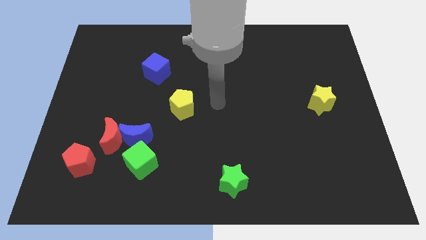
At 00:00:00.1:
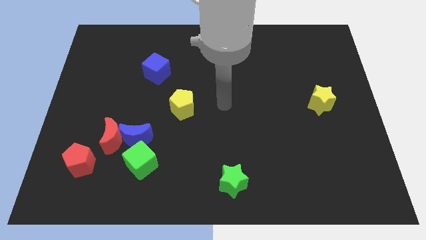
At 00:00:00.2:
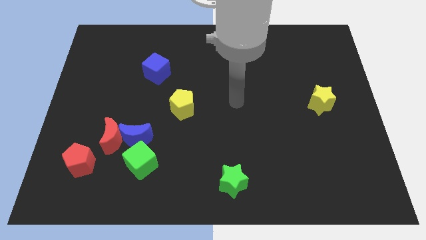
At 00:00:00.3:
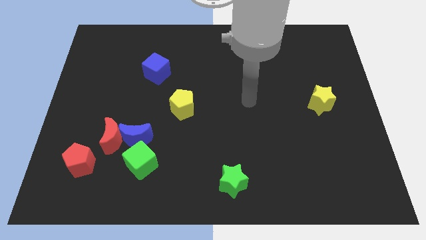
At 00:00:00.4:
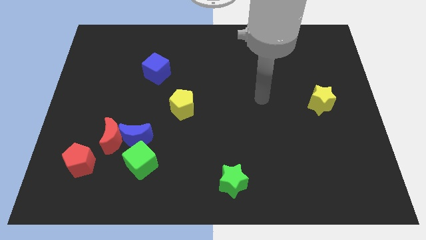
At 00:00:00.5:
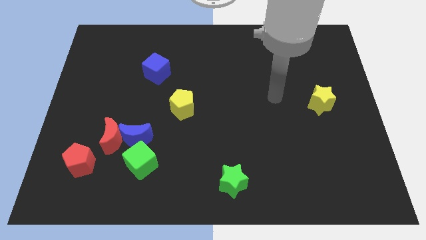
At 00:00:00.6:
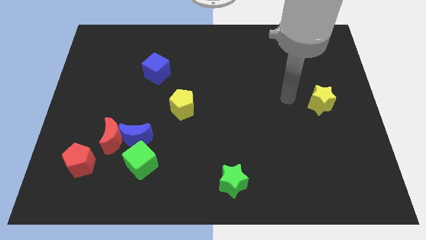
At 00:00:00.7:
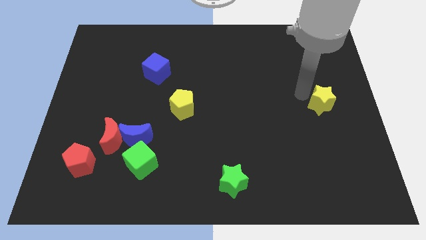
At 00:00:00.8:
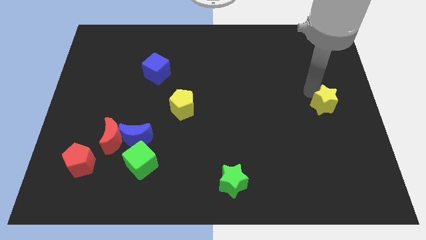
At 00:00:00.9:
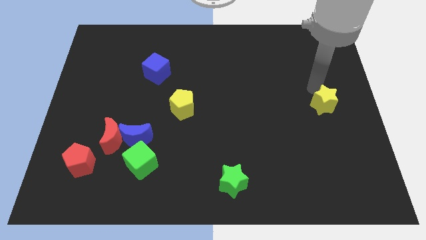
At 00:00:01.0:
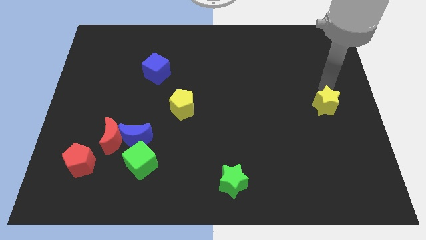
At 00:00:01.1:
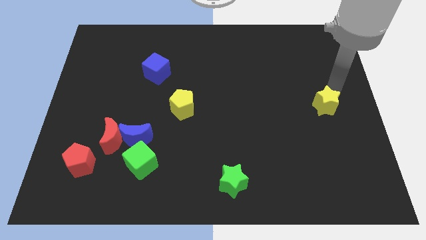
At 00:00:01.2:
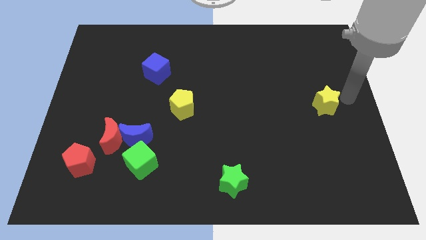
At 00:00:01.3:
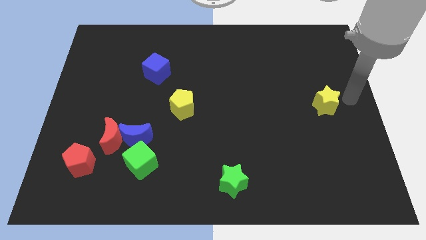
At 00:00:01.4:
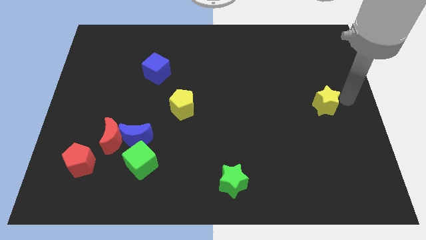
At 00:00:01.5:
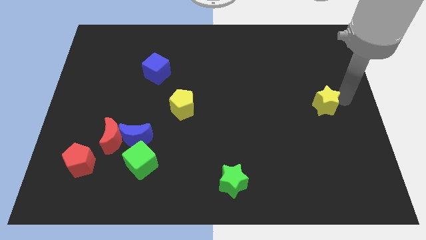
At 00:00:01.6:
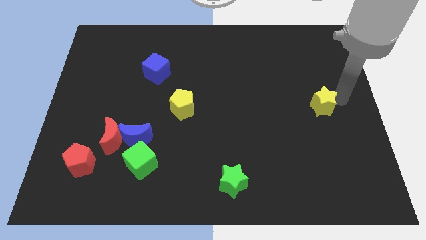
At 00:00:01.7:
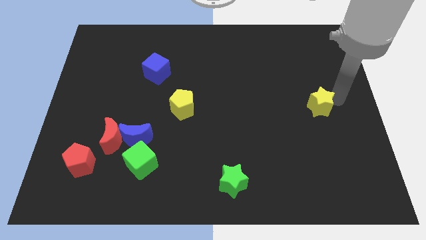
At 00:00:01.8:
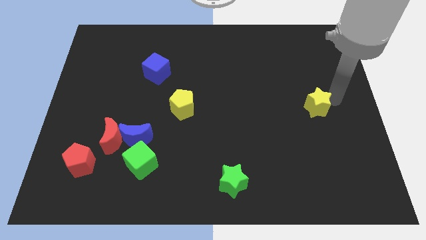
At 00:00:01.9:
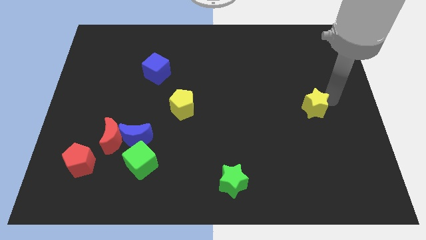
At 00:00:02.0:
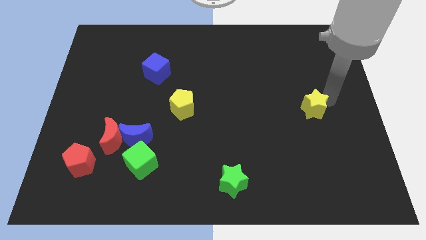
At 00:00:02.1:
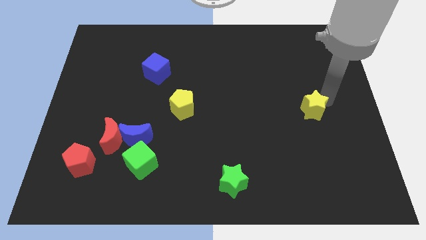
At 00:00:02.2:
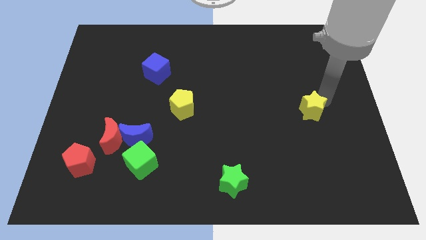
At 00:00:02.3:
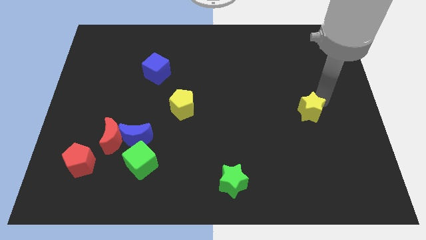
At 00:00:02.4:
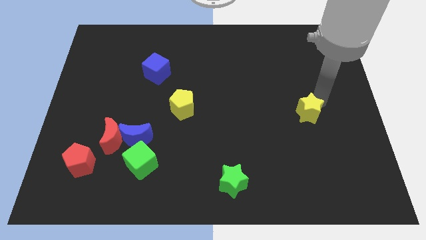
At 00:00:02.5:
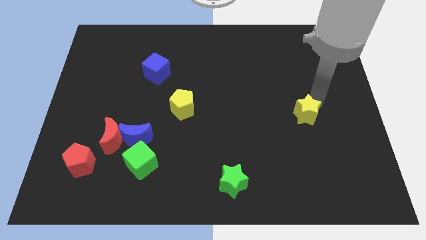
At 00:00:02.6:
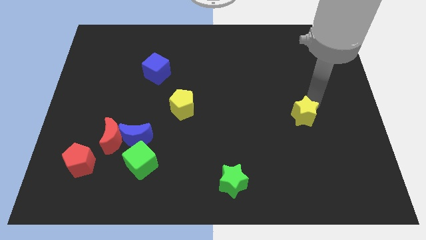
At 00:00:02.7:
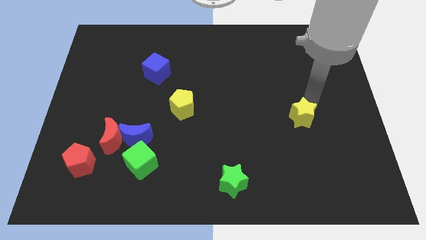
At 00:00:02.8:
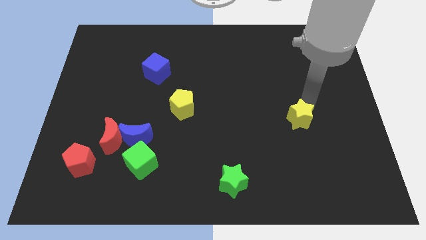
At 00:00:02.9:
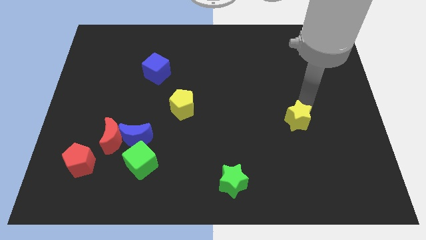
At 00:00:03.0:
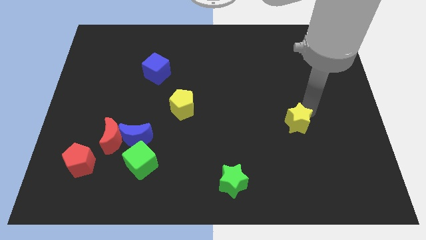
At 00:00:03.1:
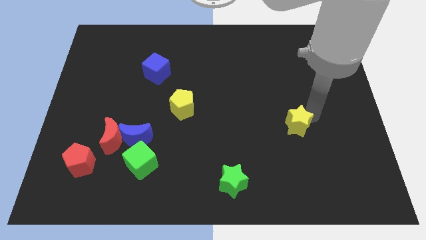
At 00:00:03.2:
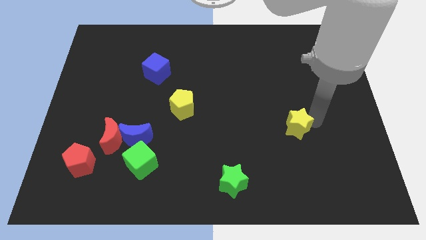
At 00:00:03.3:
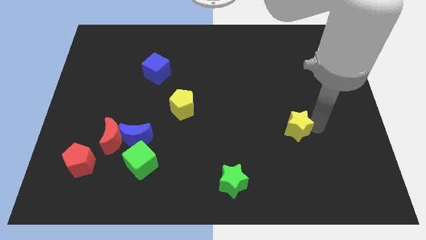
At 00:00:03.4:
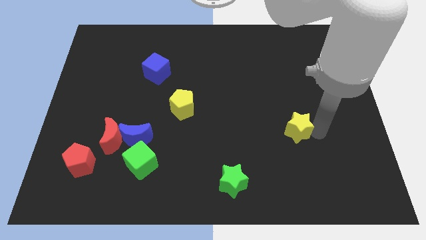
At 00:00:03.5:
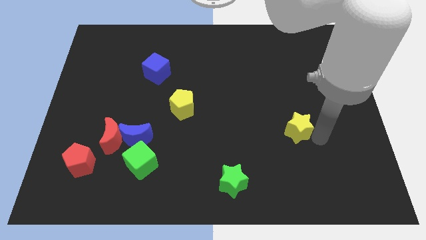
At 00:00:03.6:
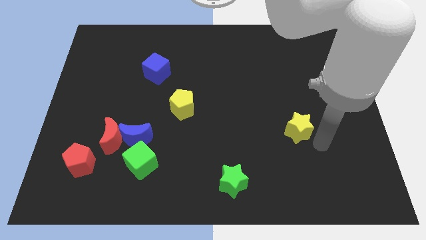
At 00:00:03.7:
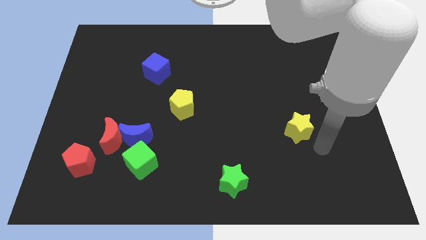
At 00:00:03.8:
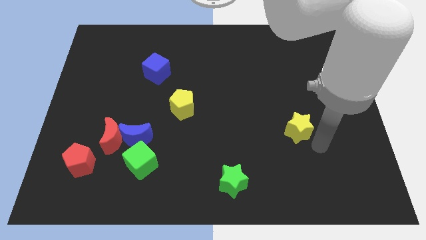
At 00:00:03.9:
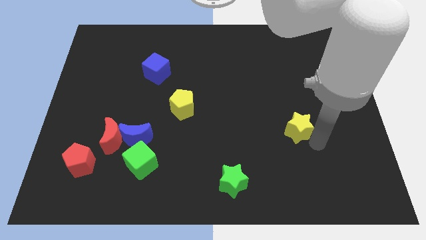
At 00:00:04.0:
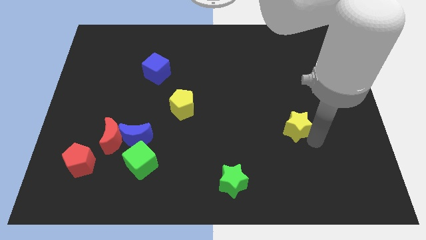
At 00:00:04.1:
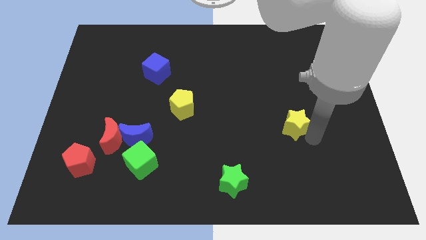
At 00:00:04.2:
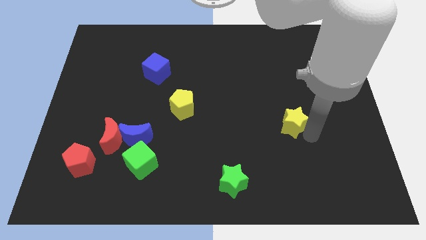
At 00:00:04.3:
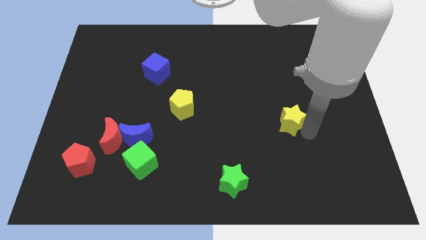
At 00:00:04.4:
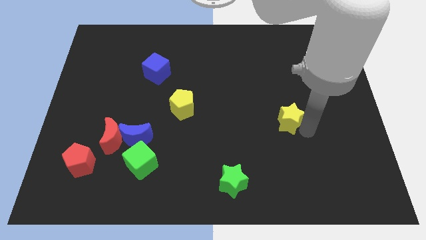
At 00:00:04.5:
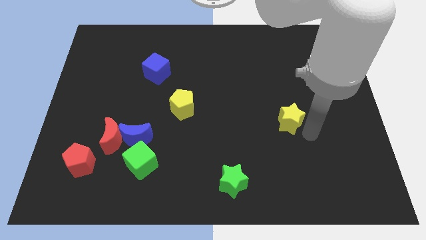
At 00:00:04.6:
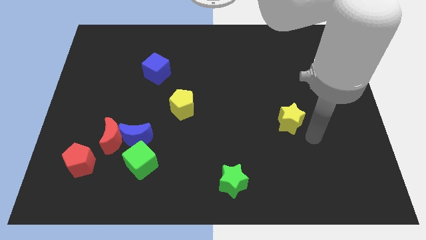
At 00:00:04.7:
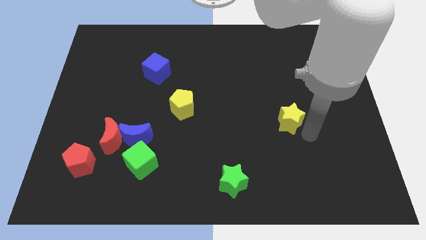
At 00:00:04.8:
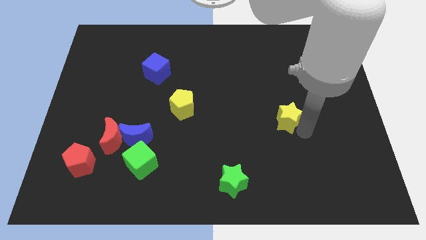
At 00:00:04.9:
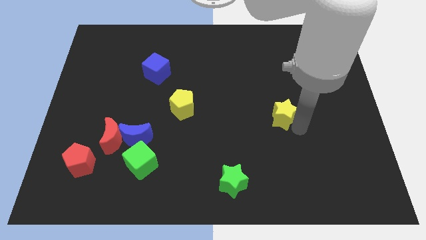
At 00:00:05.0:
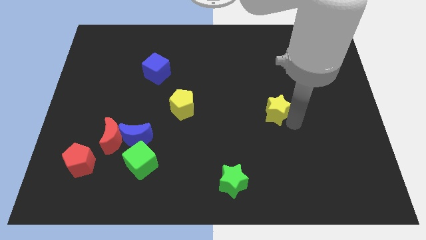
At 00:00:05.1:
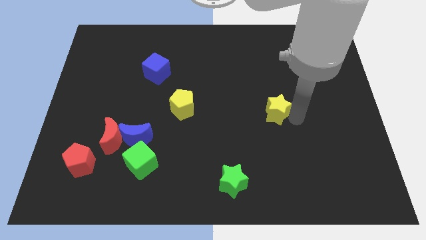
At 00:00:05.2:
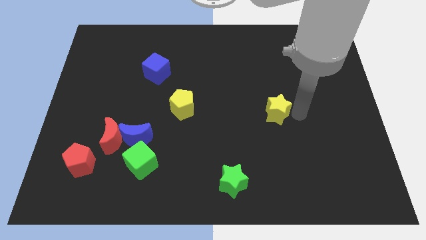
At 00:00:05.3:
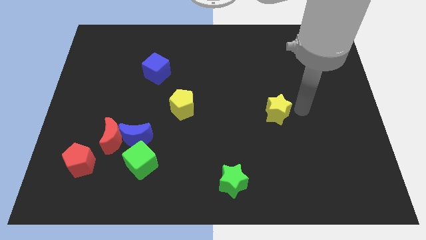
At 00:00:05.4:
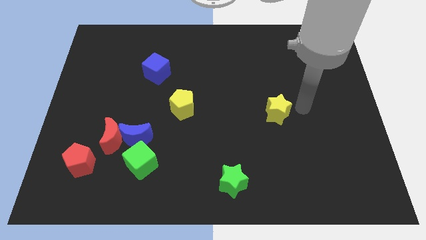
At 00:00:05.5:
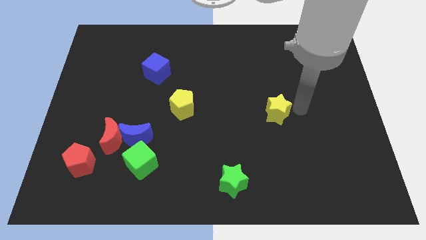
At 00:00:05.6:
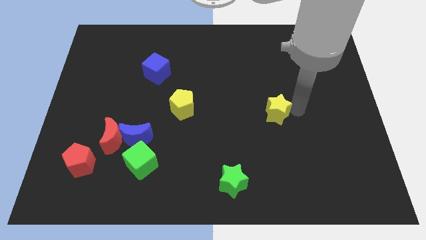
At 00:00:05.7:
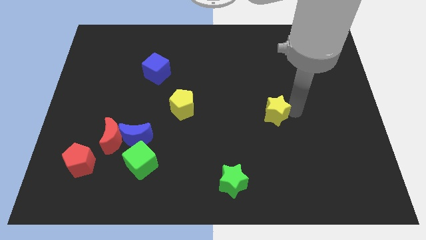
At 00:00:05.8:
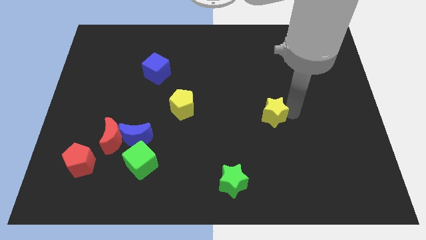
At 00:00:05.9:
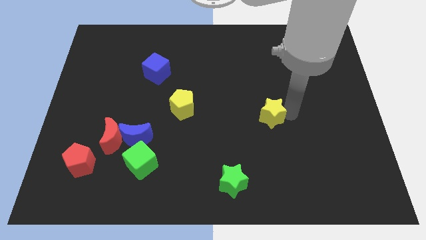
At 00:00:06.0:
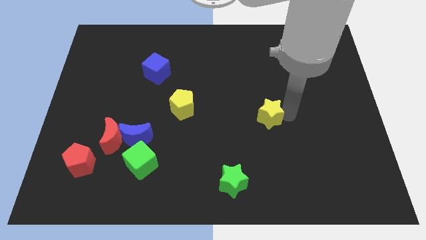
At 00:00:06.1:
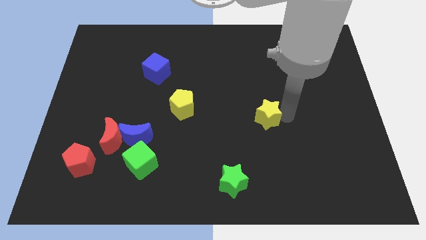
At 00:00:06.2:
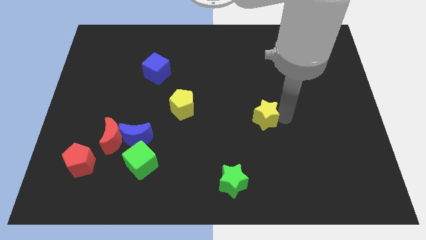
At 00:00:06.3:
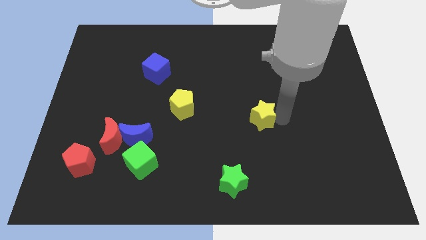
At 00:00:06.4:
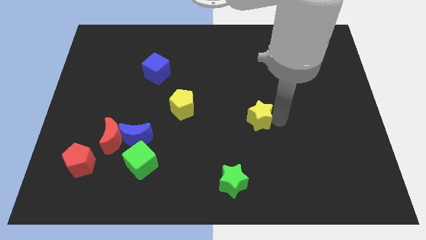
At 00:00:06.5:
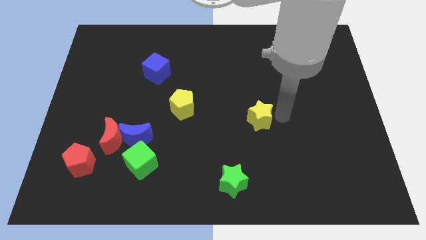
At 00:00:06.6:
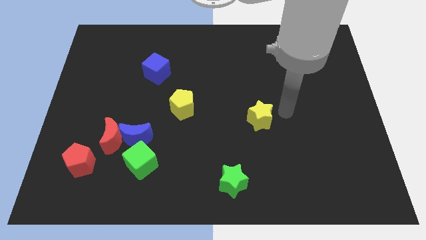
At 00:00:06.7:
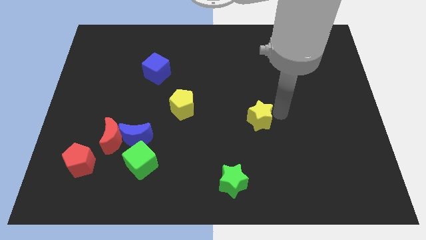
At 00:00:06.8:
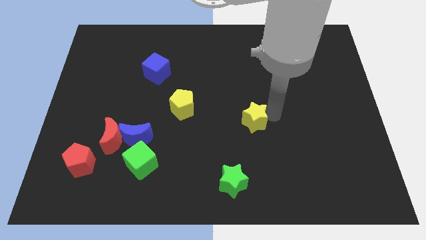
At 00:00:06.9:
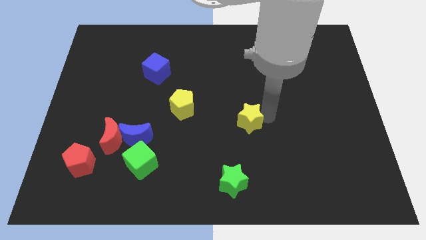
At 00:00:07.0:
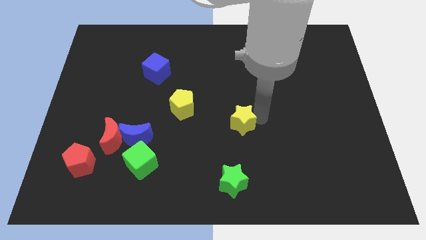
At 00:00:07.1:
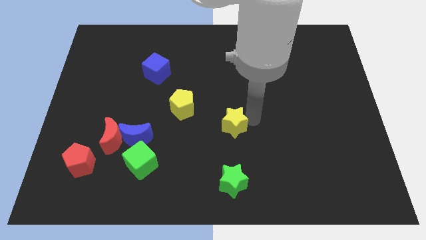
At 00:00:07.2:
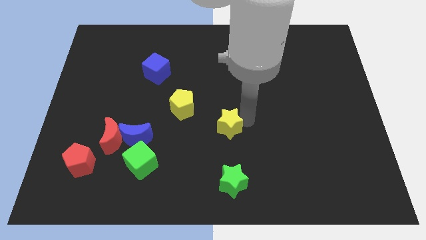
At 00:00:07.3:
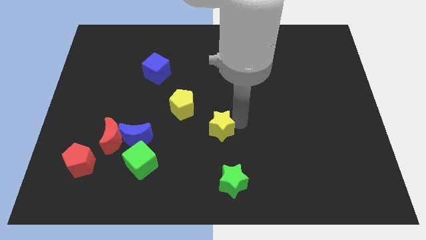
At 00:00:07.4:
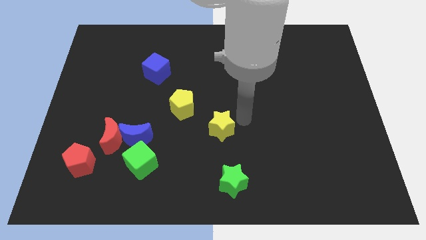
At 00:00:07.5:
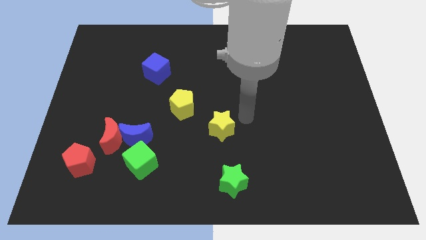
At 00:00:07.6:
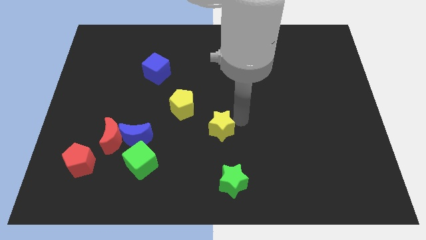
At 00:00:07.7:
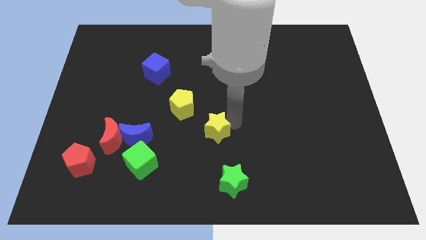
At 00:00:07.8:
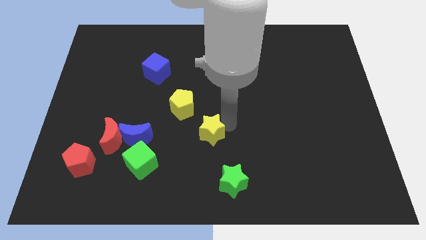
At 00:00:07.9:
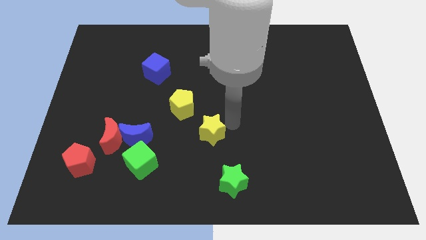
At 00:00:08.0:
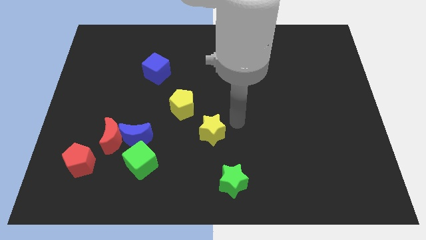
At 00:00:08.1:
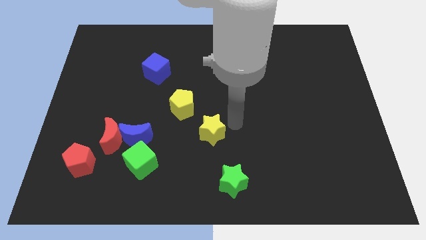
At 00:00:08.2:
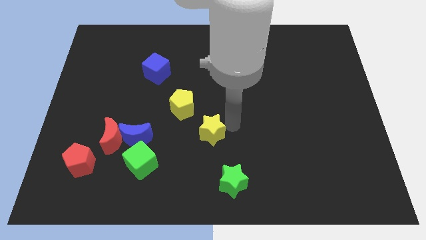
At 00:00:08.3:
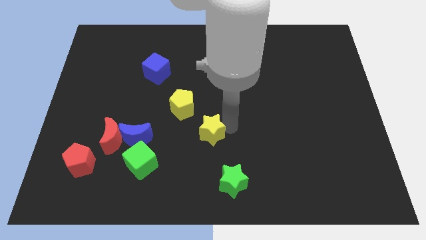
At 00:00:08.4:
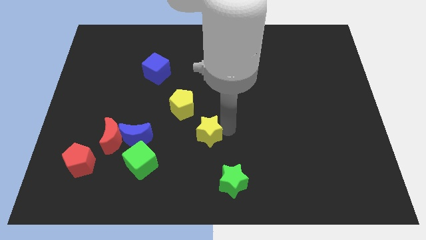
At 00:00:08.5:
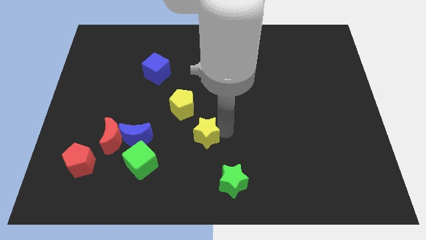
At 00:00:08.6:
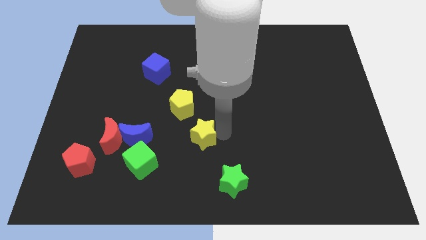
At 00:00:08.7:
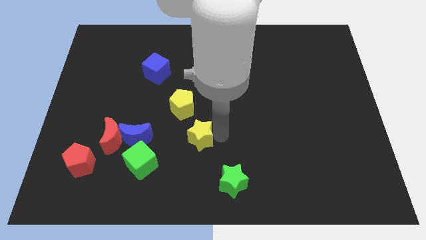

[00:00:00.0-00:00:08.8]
put the yellow star to the bottom of the yellow pentagon
